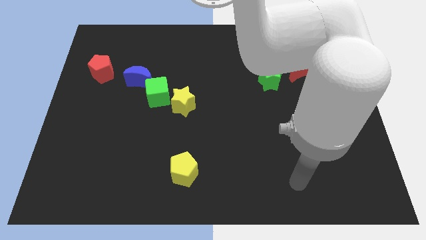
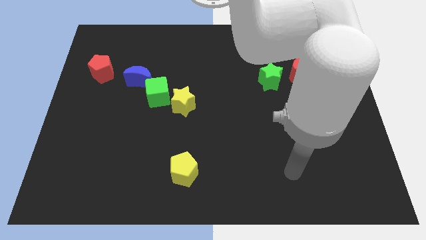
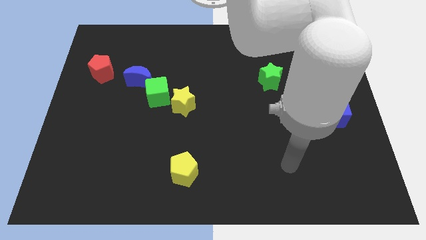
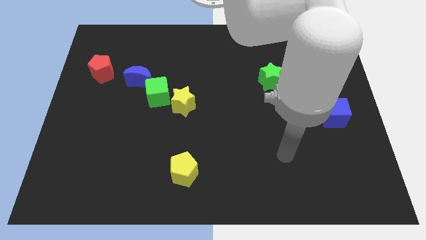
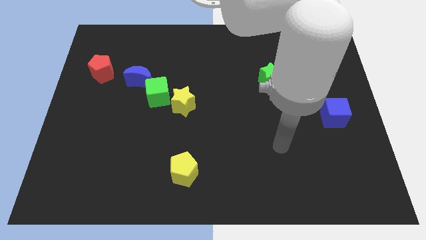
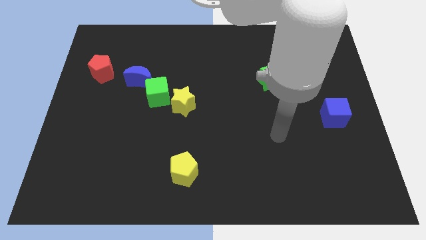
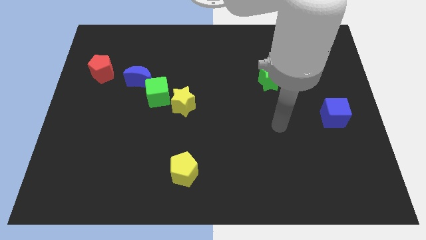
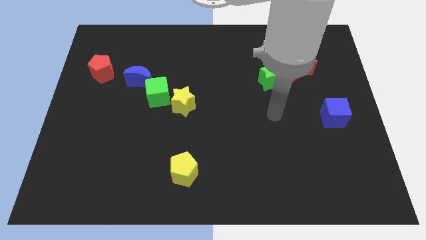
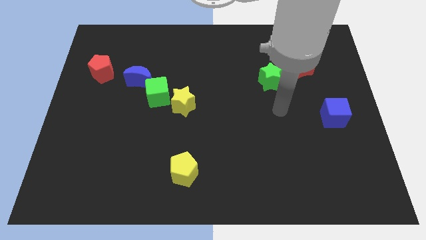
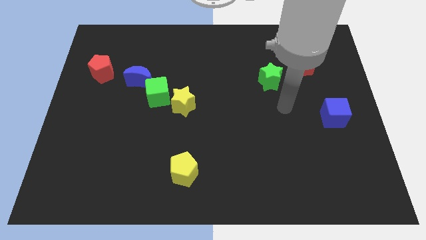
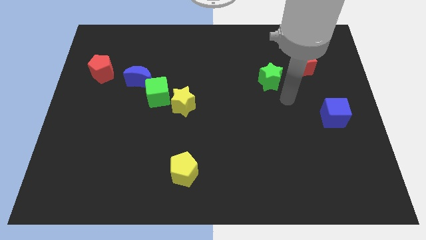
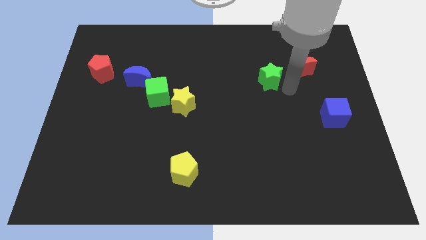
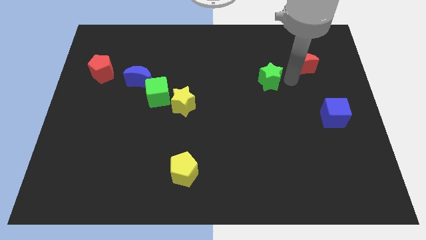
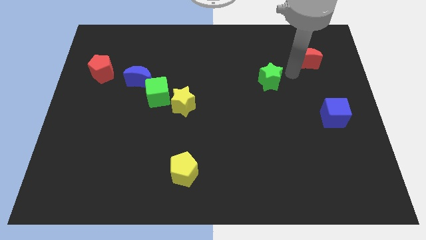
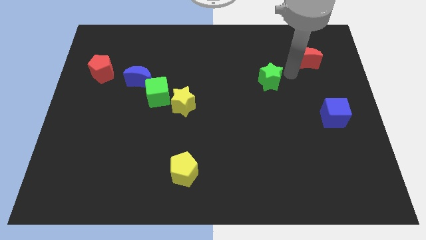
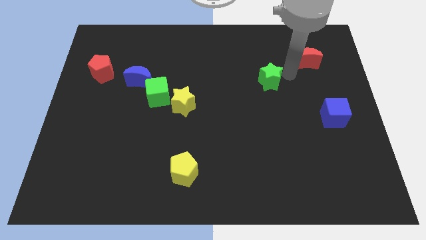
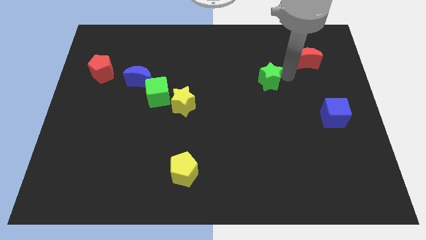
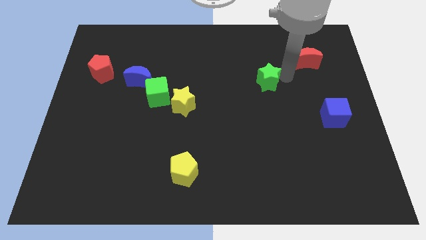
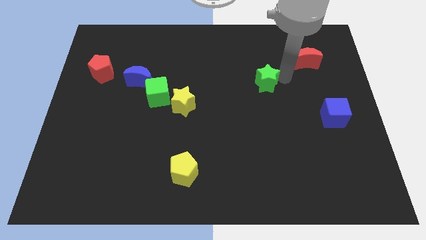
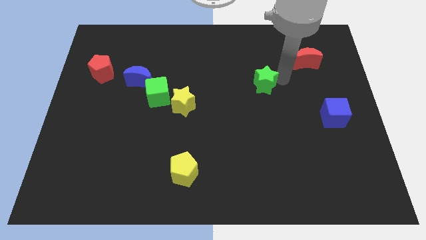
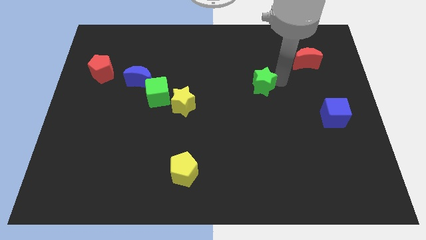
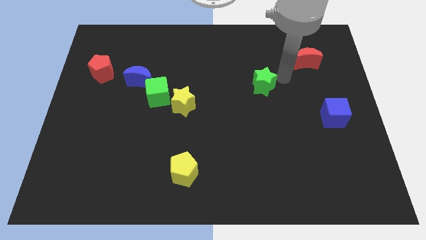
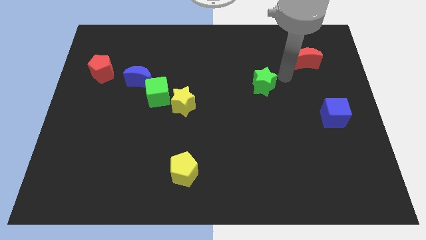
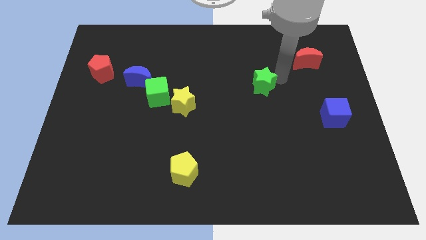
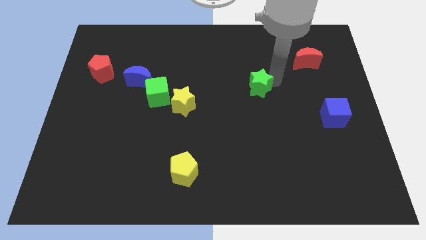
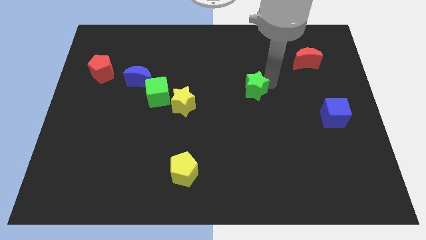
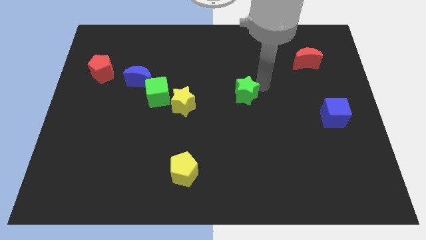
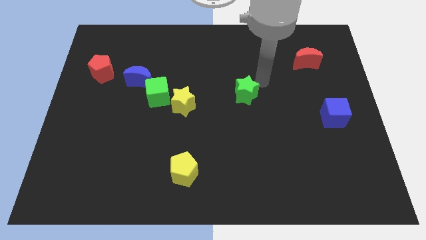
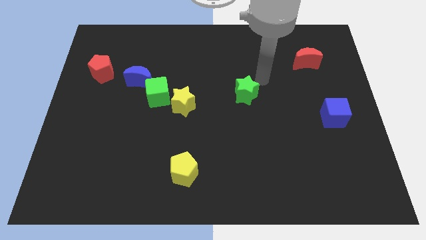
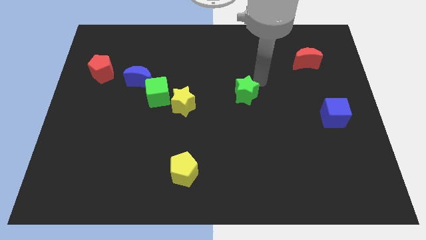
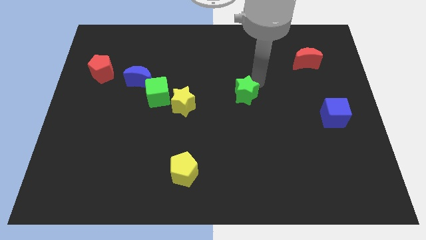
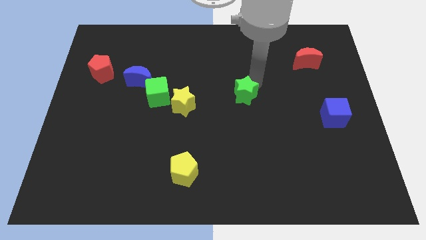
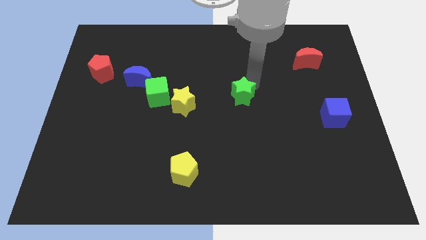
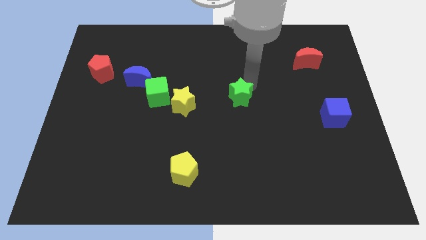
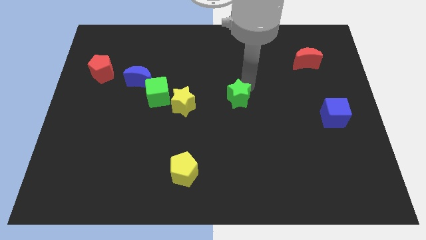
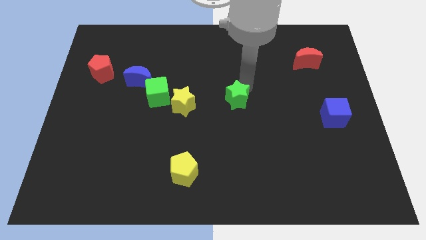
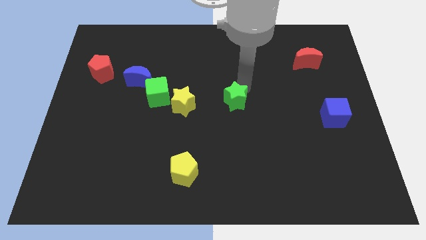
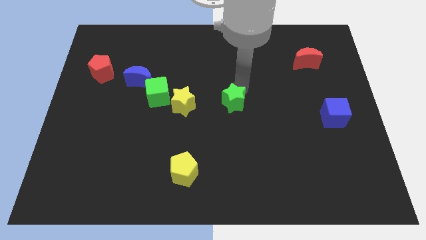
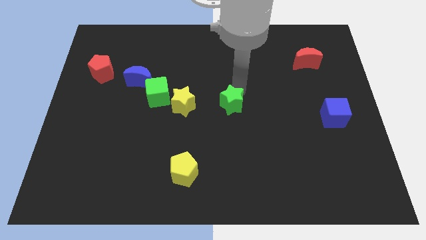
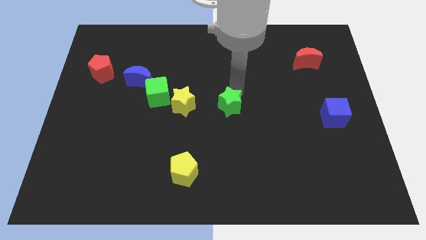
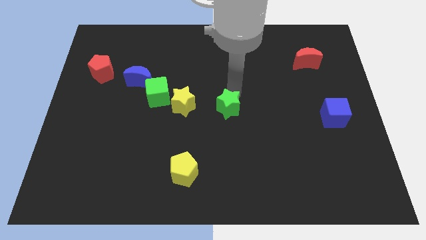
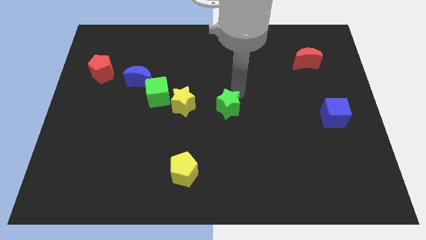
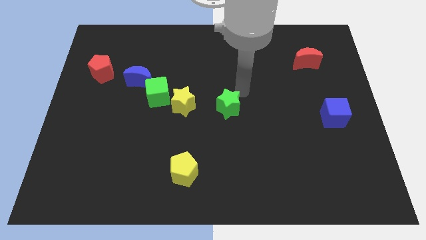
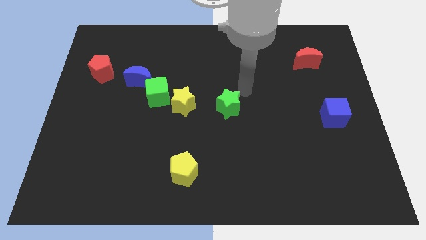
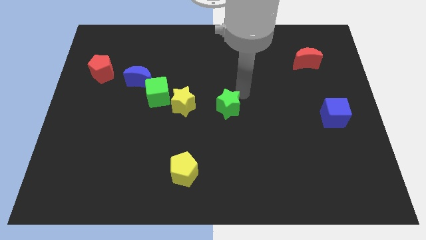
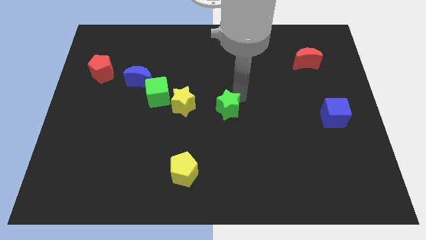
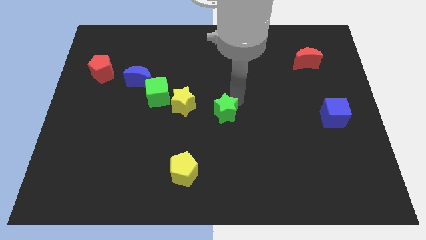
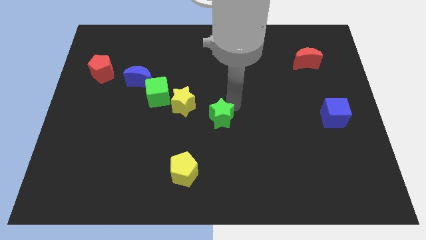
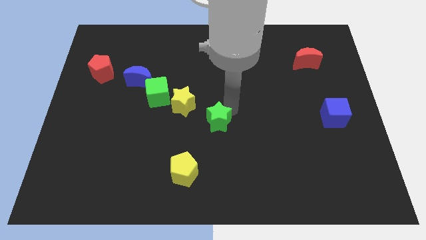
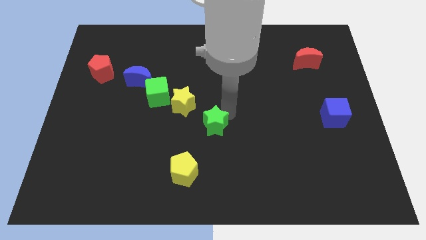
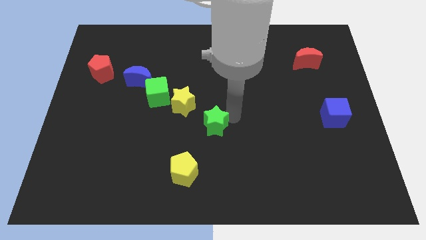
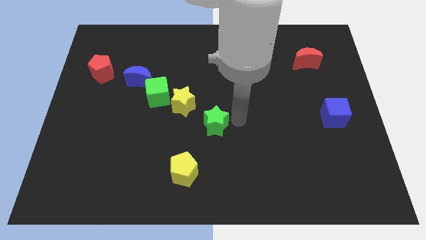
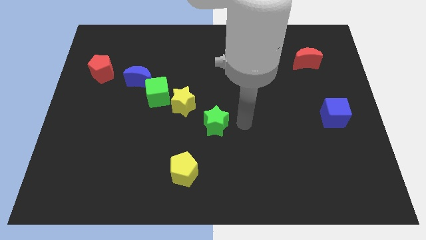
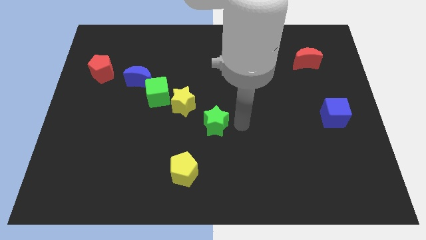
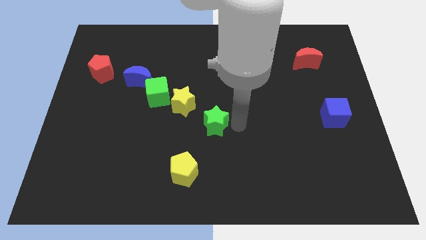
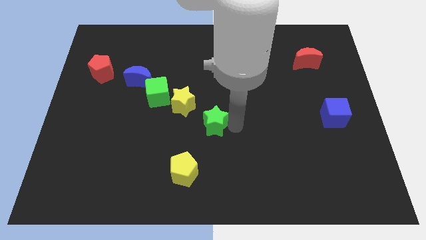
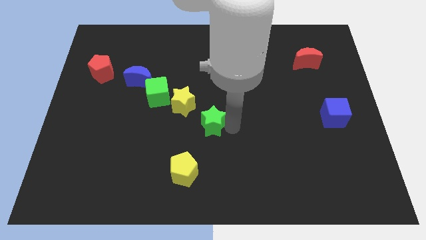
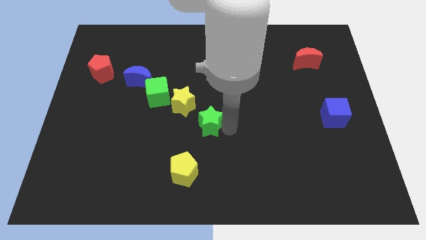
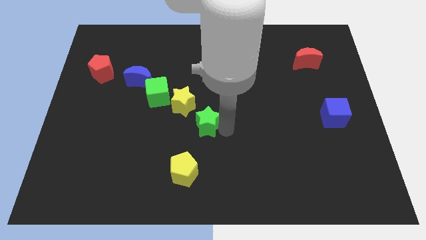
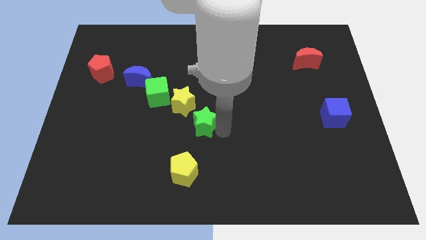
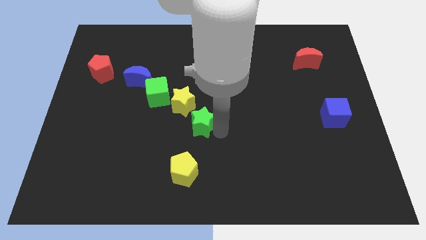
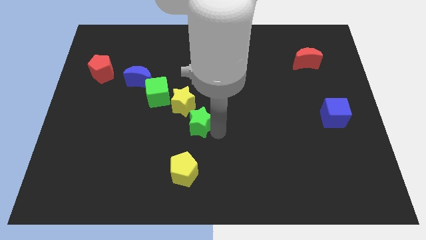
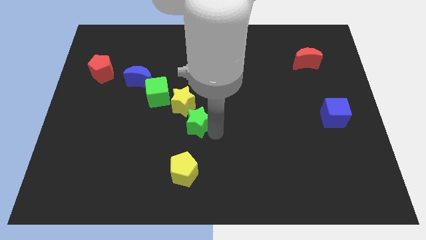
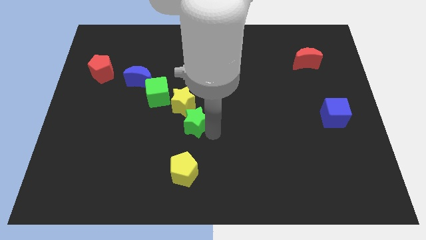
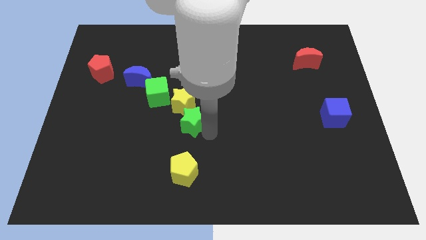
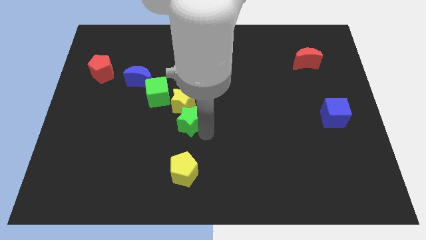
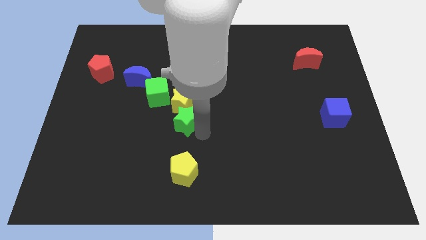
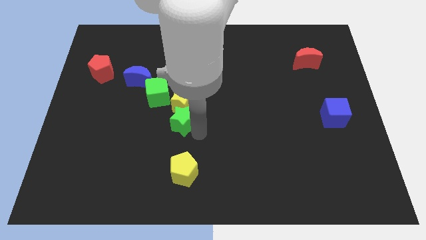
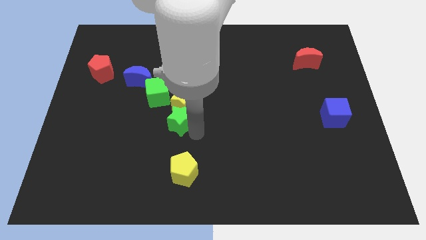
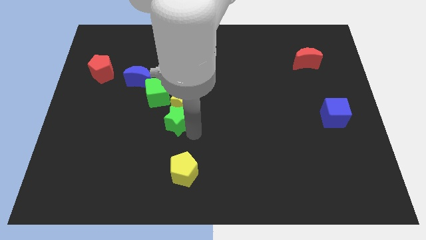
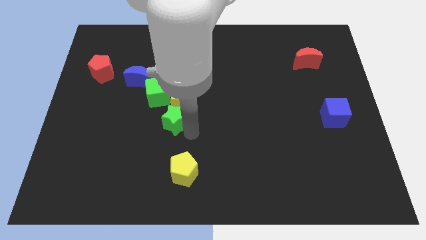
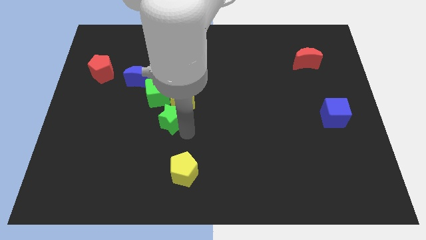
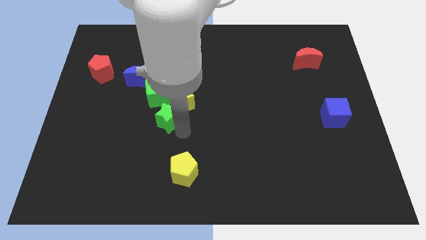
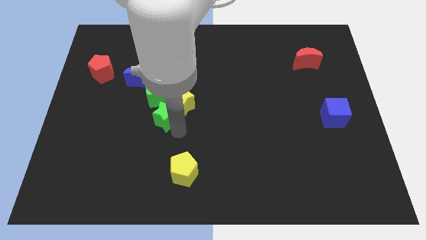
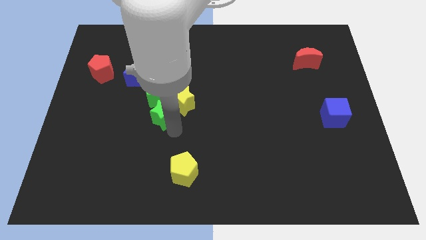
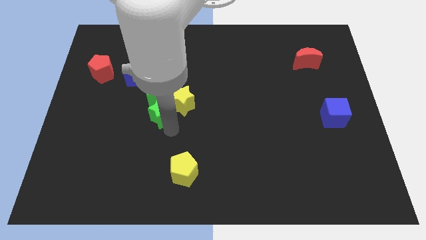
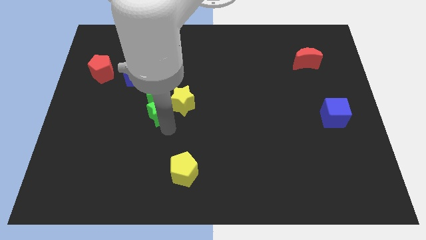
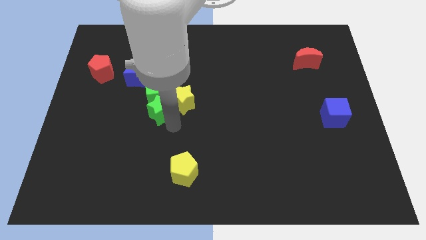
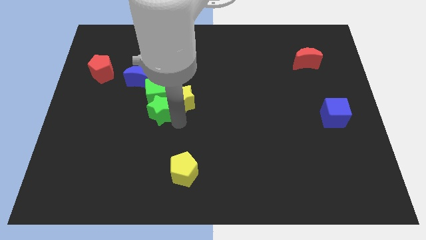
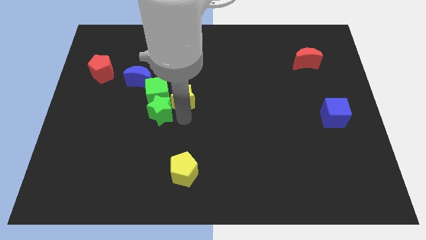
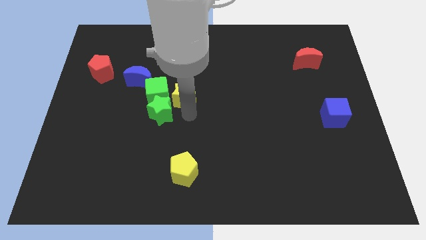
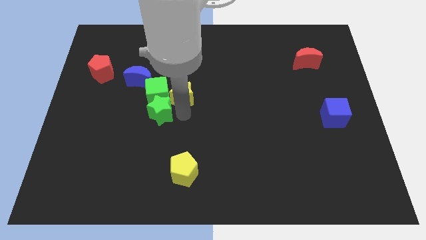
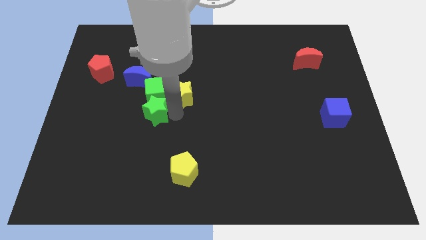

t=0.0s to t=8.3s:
put the green star to the bottom side of the blue moon
